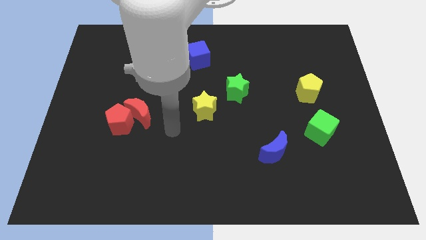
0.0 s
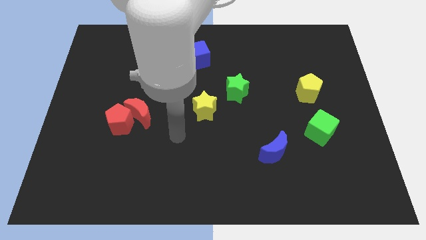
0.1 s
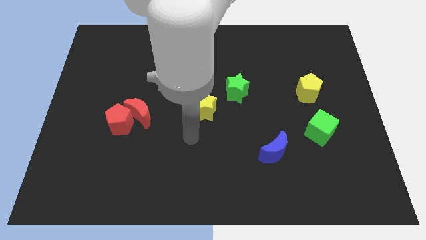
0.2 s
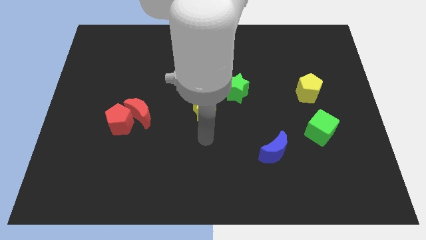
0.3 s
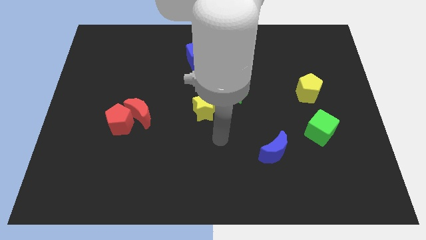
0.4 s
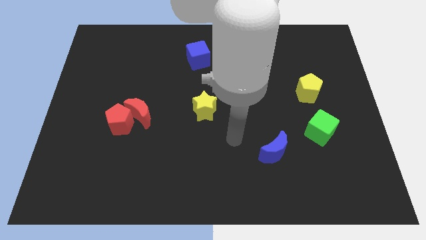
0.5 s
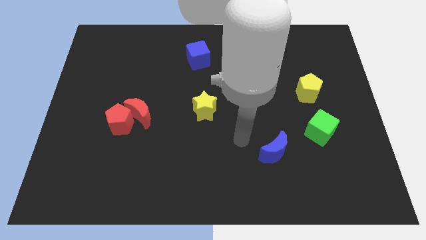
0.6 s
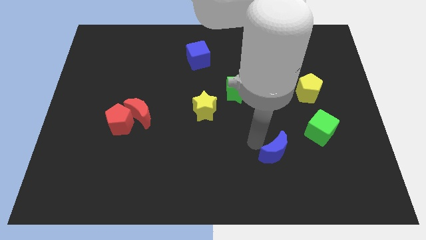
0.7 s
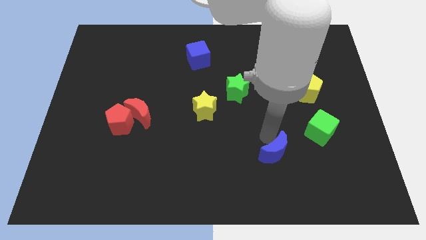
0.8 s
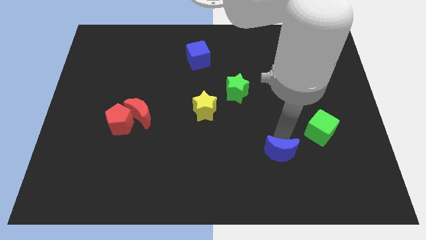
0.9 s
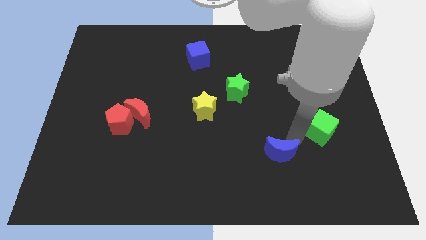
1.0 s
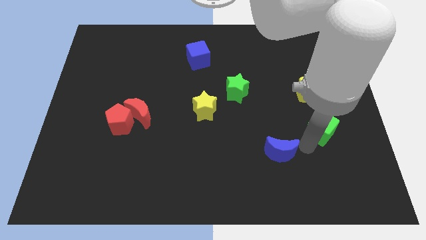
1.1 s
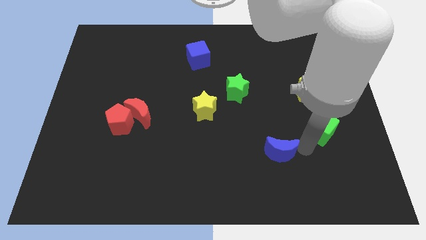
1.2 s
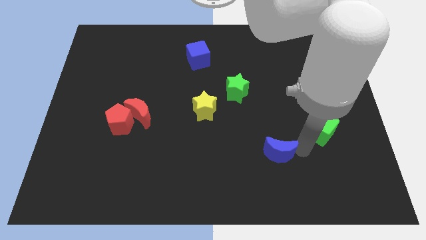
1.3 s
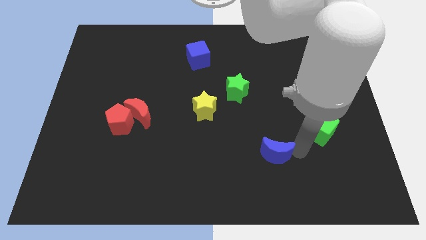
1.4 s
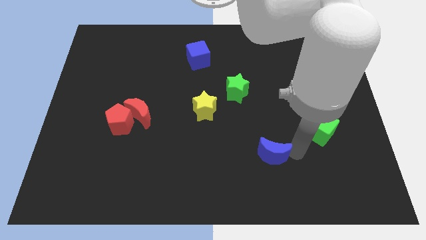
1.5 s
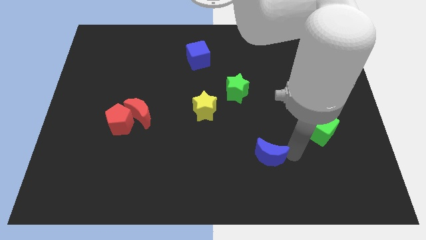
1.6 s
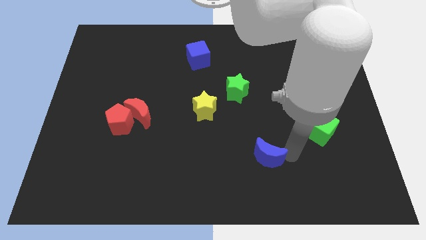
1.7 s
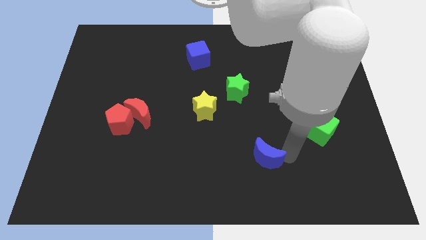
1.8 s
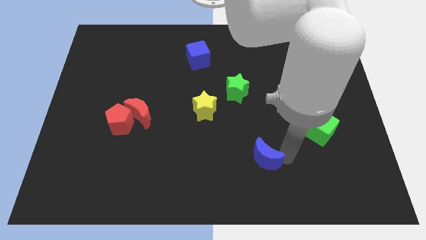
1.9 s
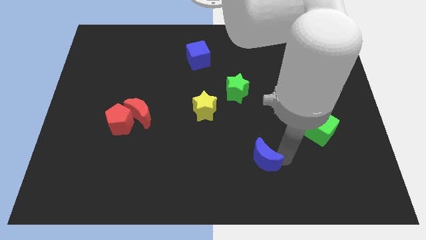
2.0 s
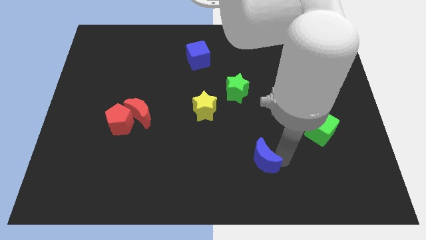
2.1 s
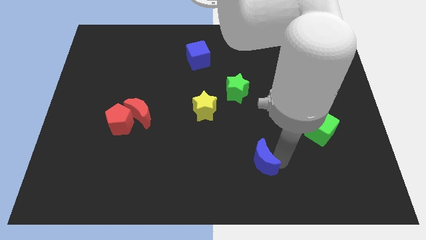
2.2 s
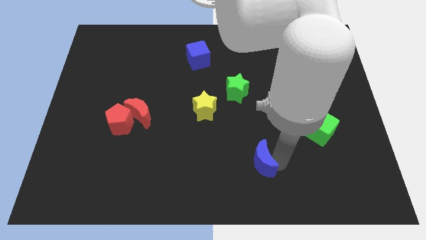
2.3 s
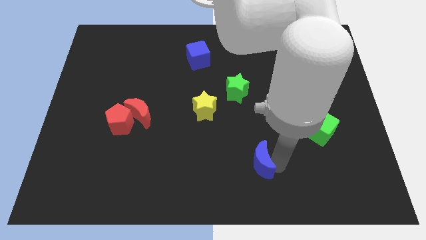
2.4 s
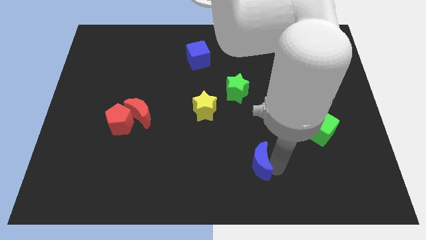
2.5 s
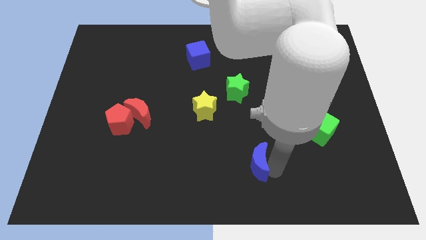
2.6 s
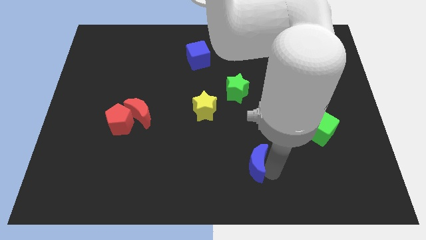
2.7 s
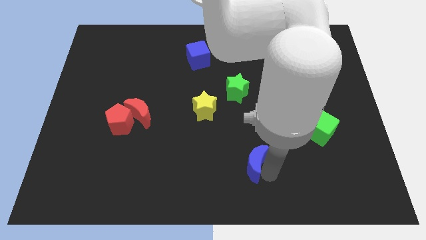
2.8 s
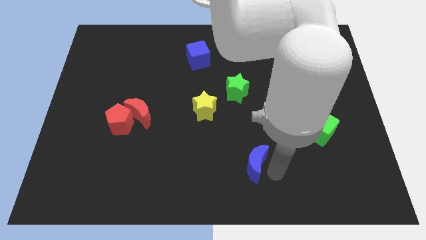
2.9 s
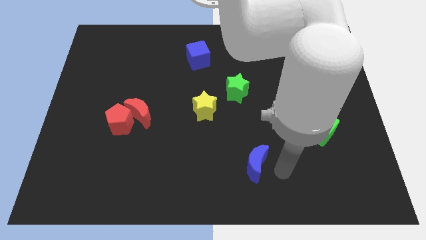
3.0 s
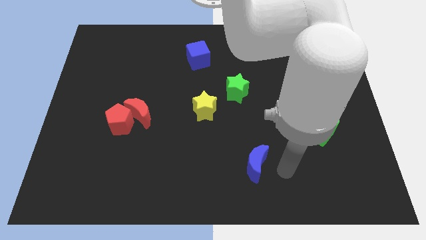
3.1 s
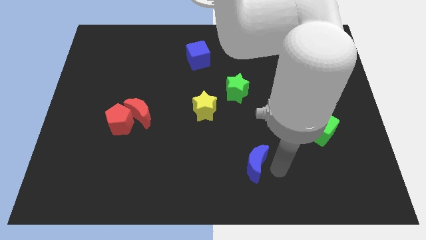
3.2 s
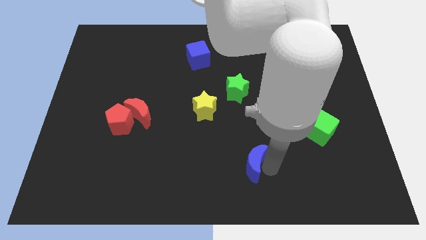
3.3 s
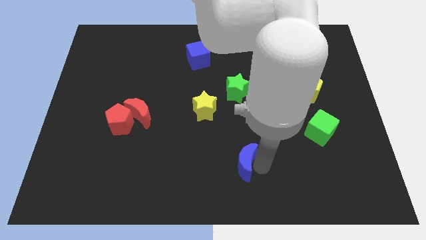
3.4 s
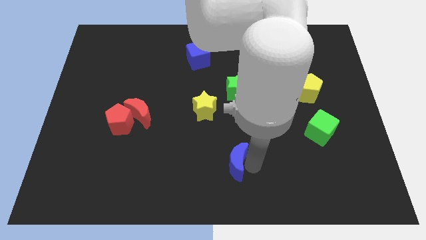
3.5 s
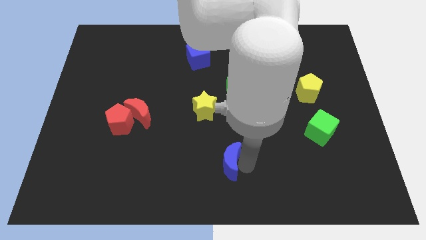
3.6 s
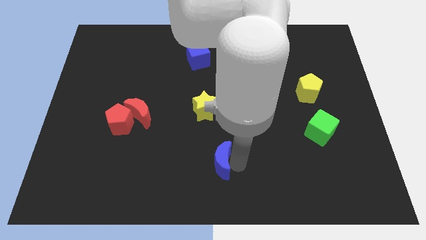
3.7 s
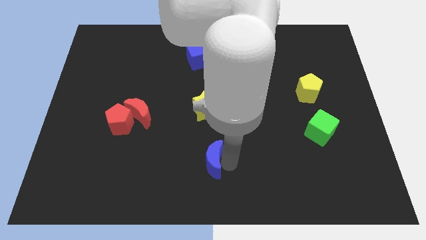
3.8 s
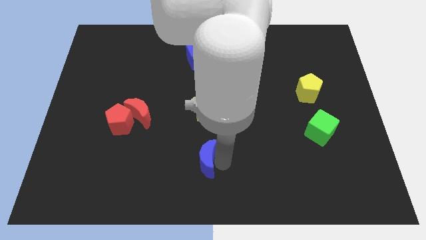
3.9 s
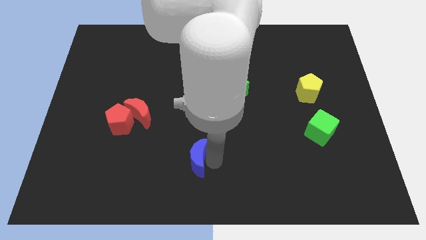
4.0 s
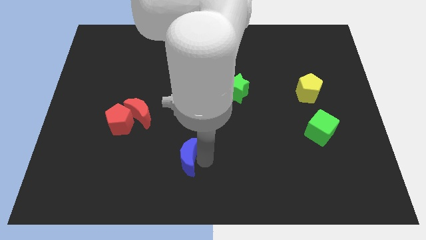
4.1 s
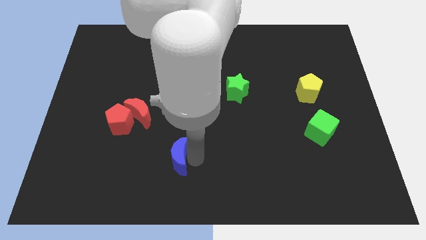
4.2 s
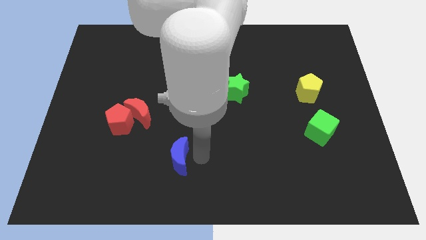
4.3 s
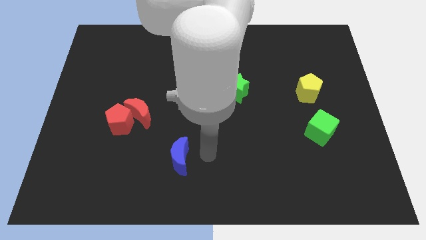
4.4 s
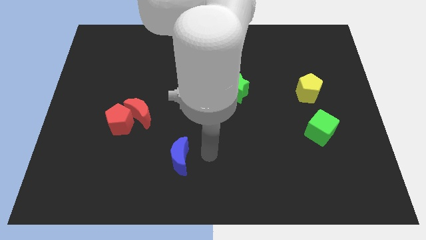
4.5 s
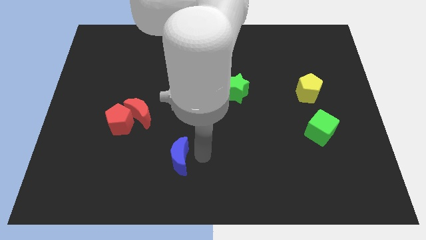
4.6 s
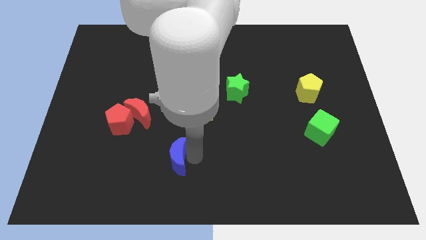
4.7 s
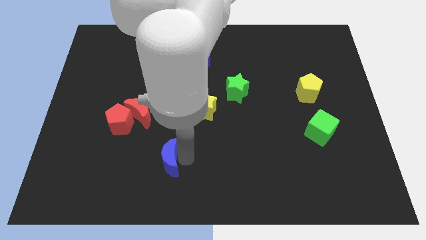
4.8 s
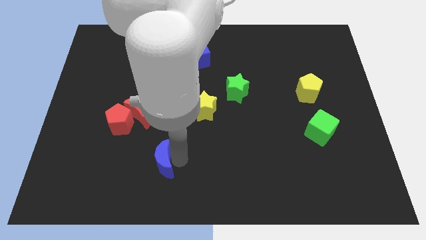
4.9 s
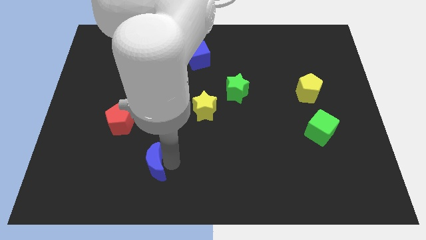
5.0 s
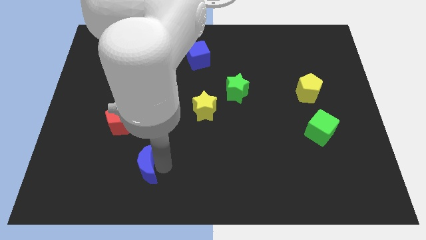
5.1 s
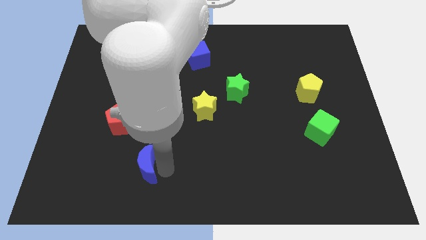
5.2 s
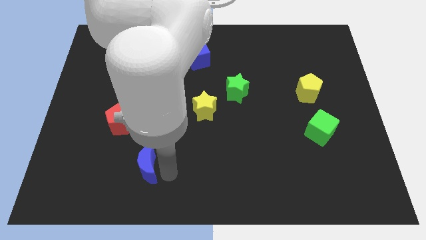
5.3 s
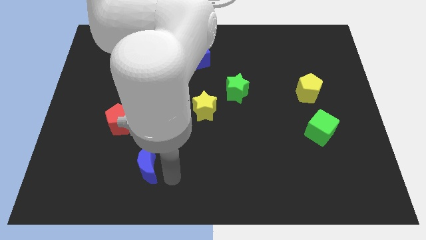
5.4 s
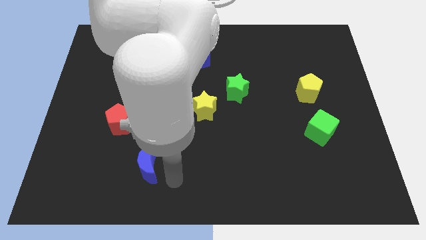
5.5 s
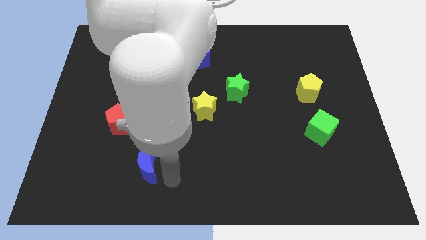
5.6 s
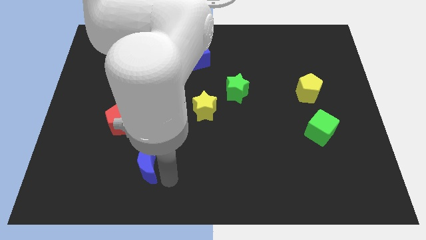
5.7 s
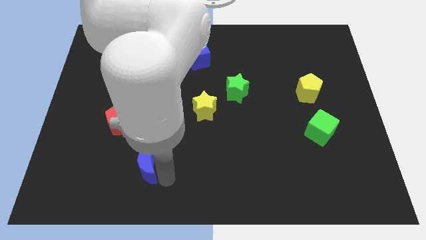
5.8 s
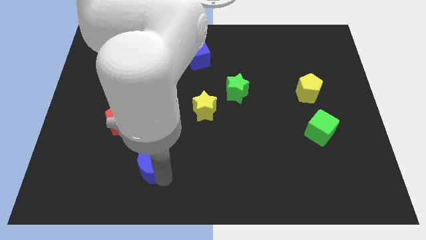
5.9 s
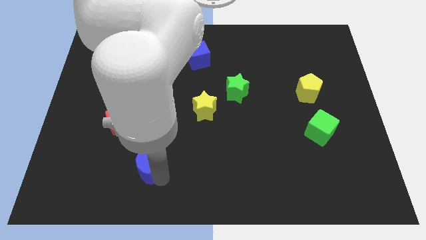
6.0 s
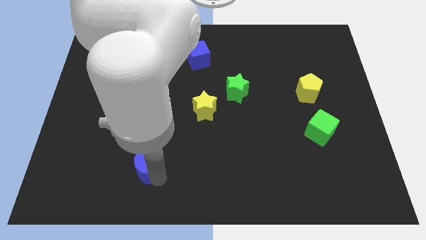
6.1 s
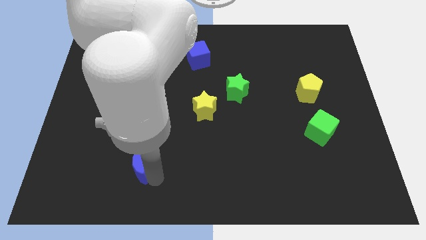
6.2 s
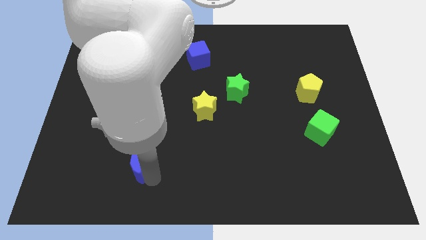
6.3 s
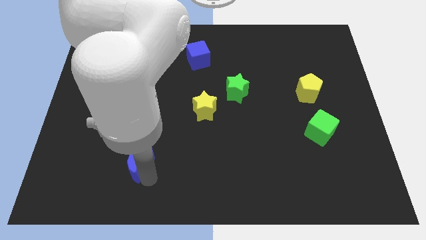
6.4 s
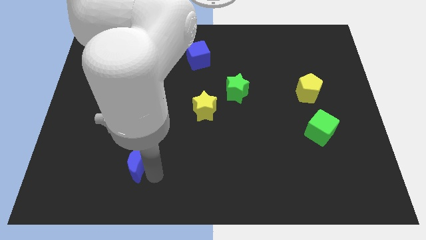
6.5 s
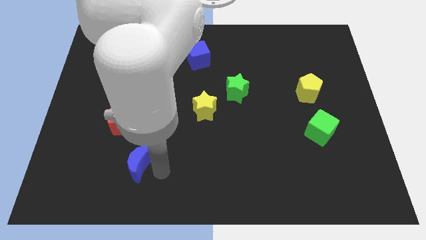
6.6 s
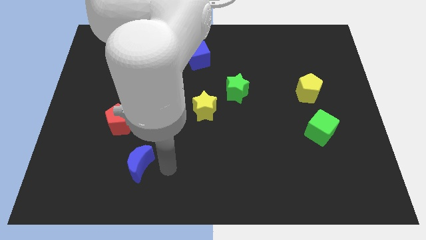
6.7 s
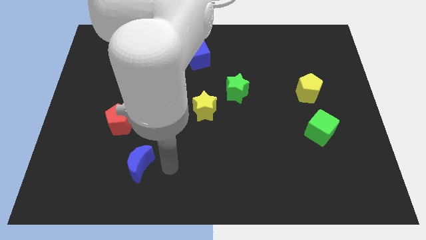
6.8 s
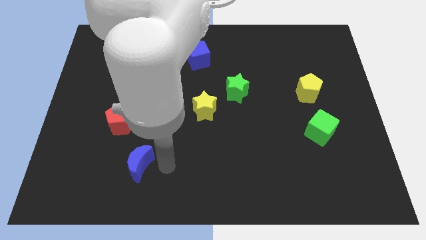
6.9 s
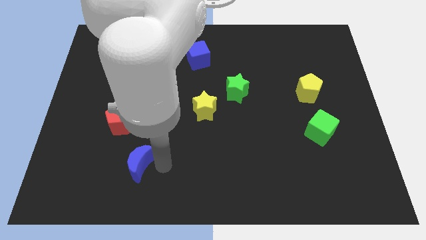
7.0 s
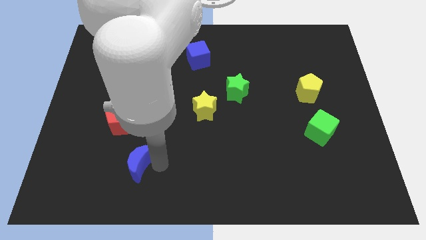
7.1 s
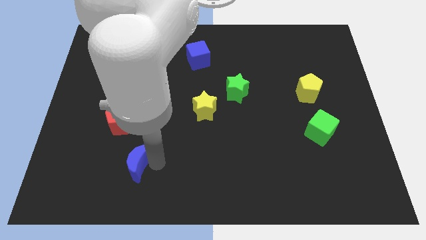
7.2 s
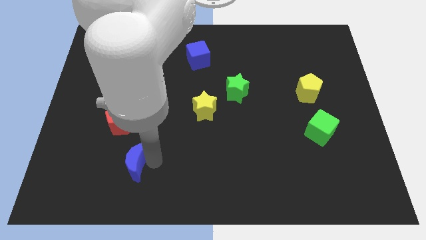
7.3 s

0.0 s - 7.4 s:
push the blue moon to the bottom side of the red pentagon
